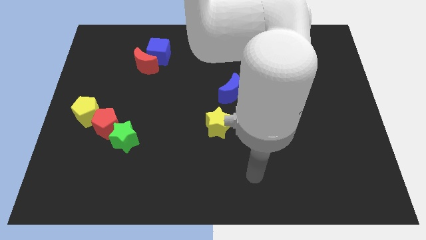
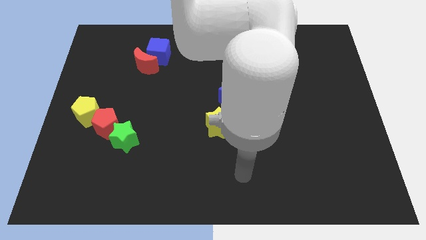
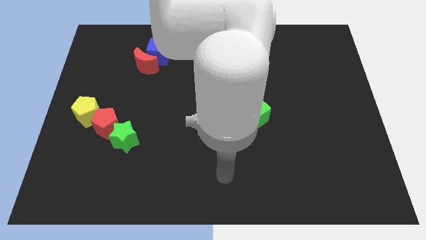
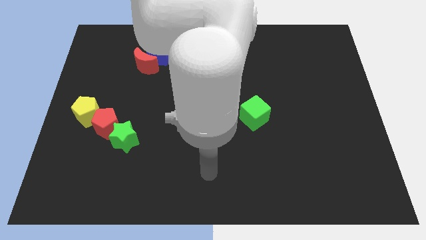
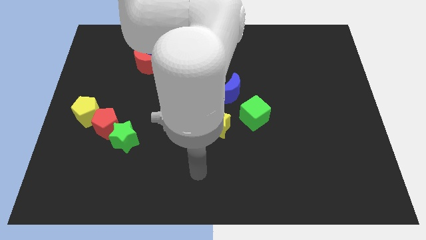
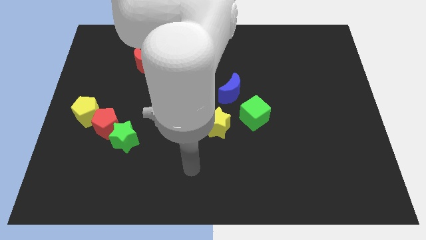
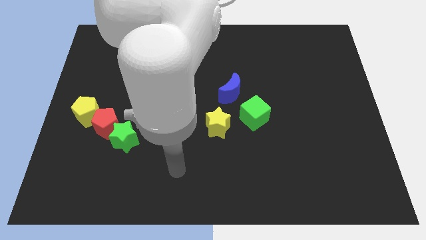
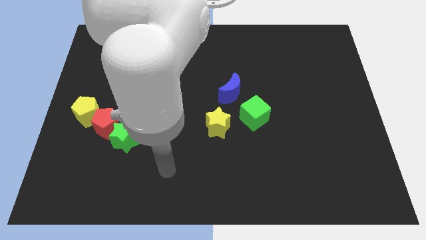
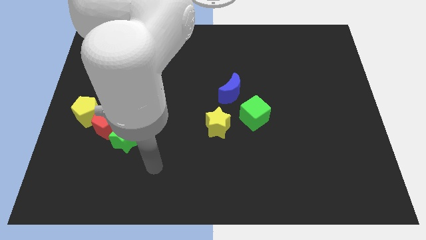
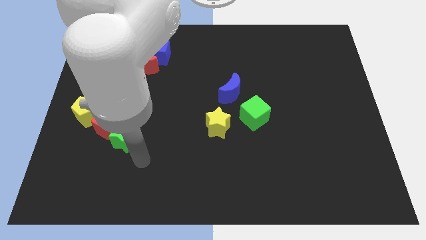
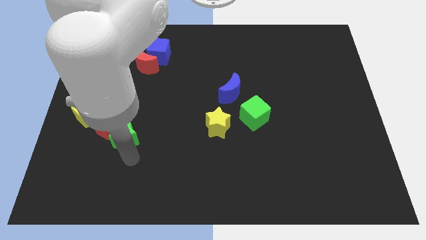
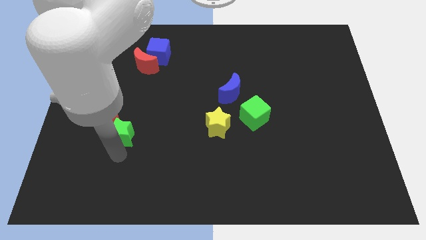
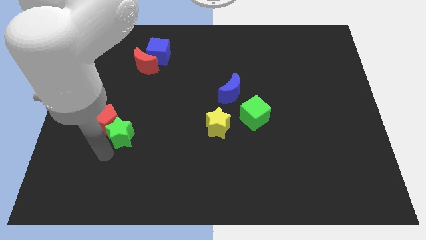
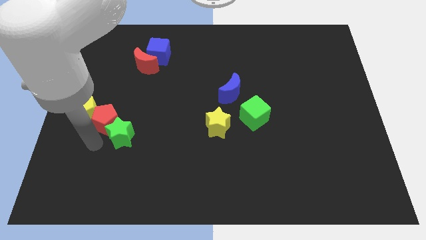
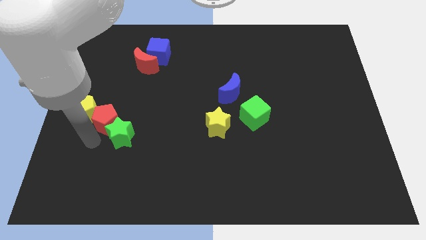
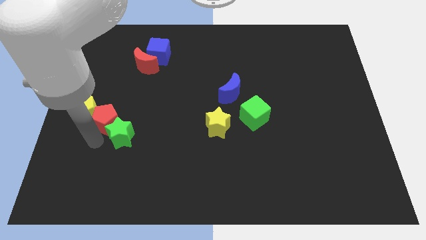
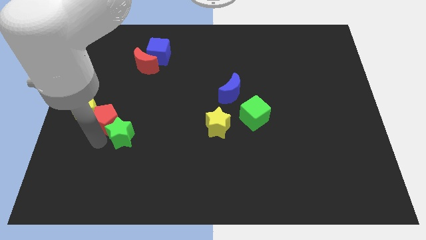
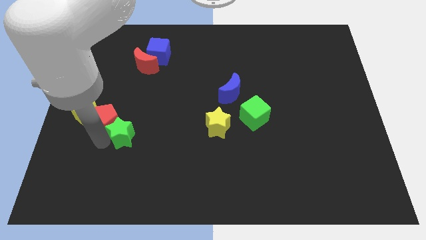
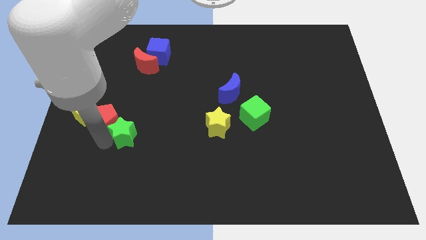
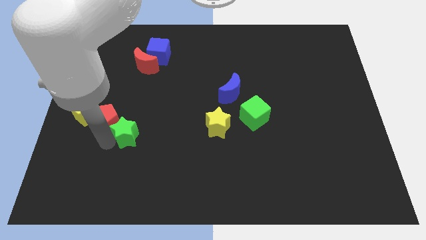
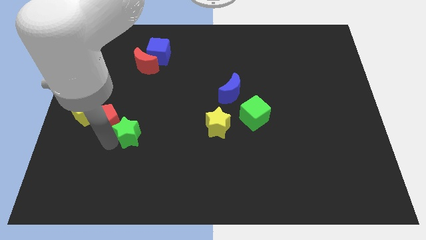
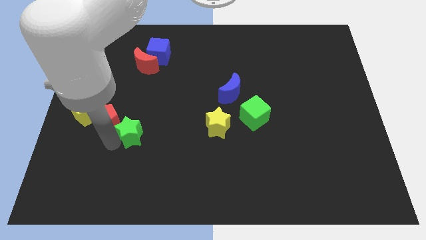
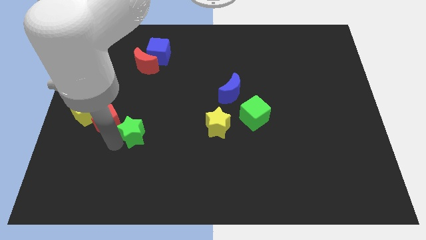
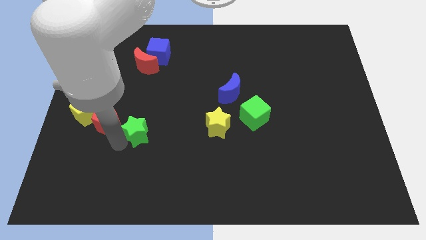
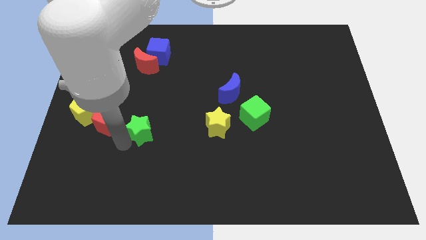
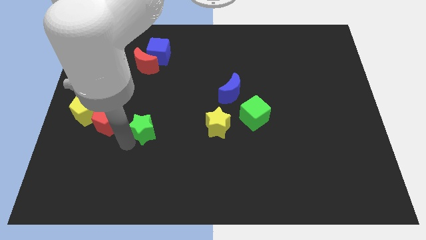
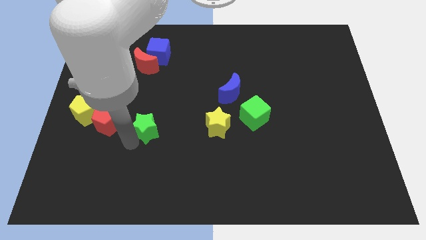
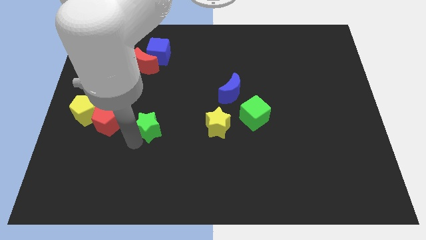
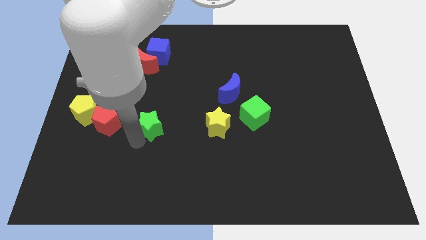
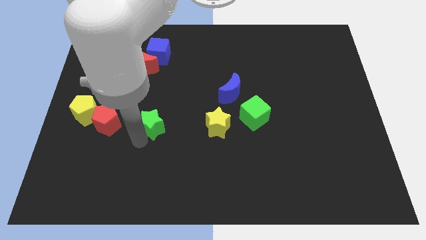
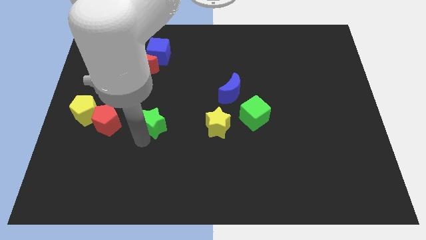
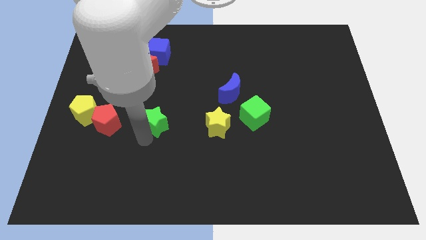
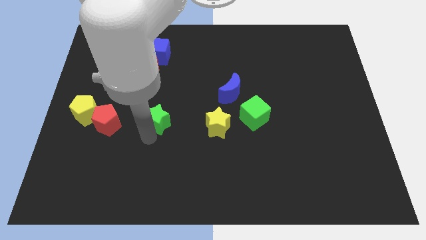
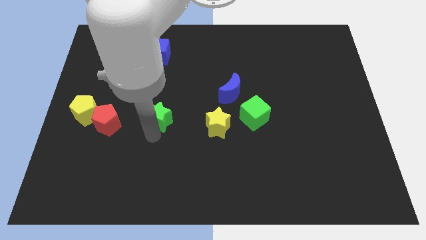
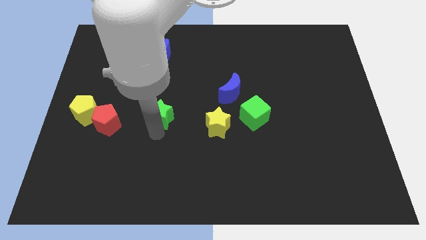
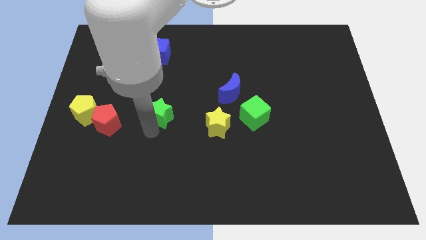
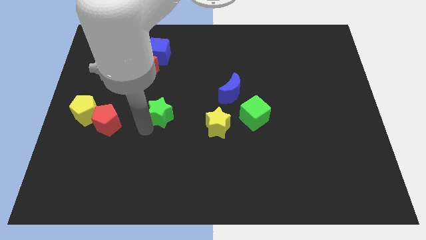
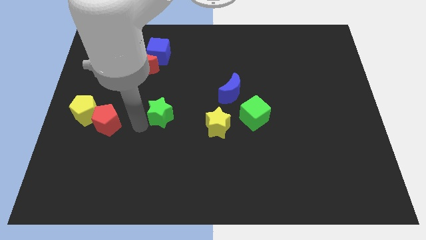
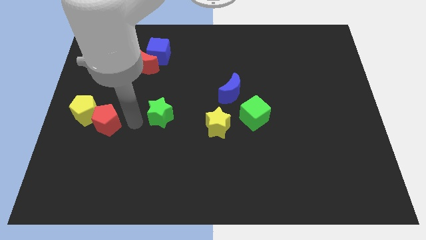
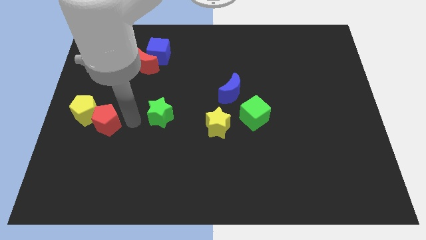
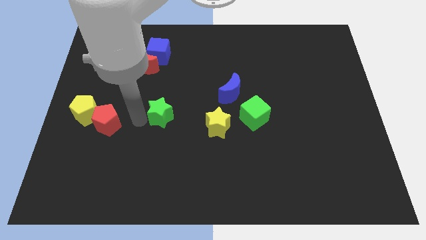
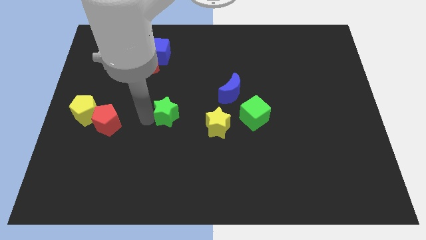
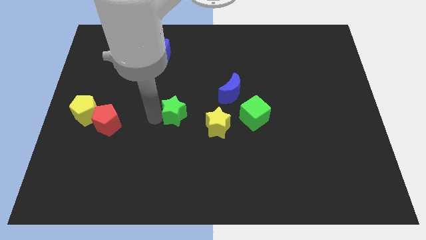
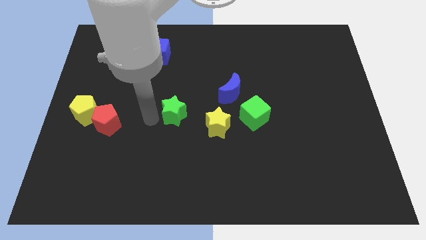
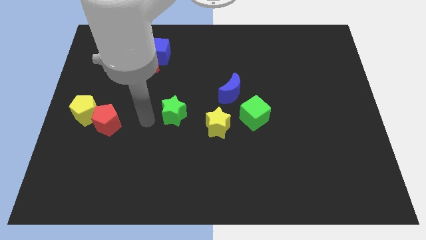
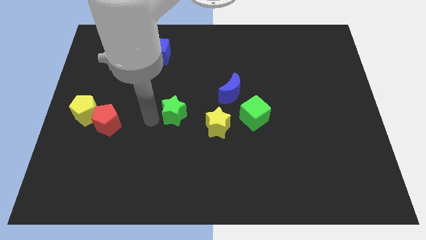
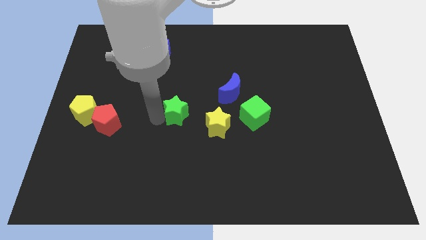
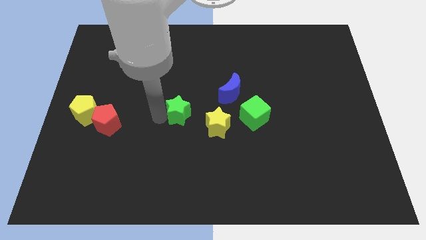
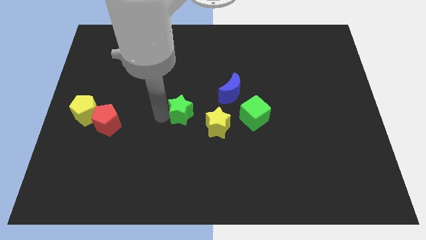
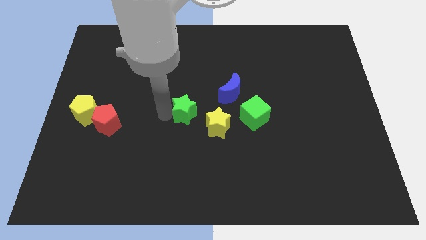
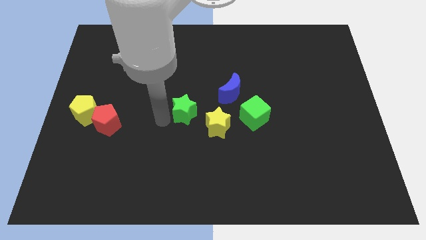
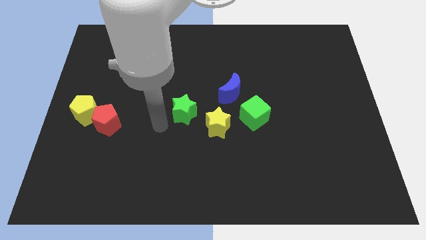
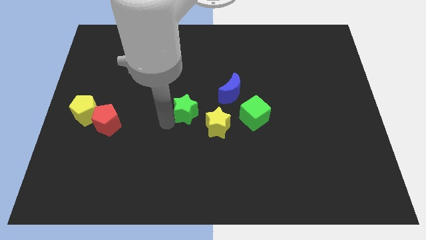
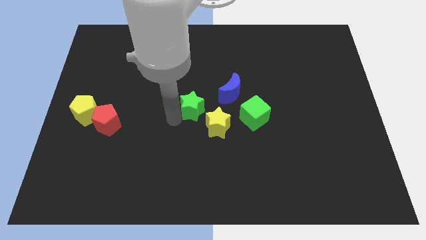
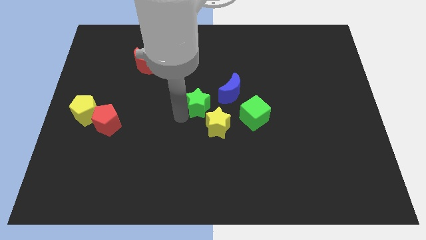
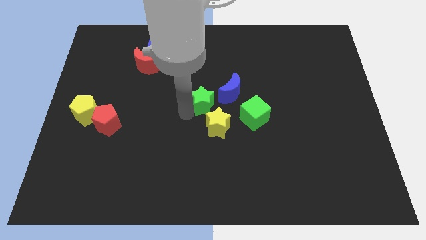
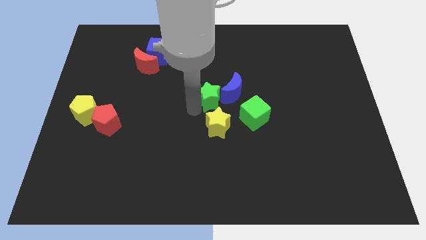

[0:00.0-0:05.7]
move the green star next to the blue moon

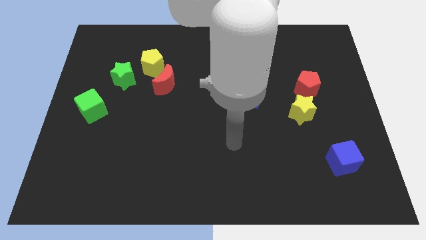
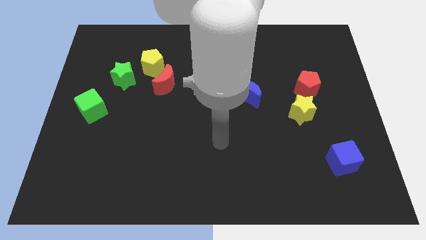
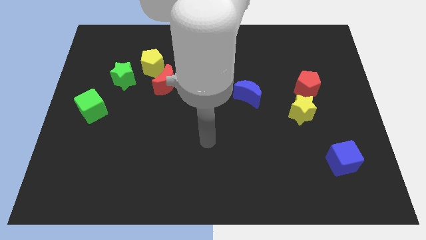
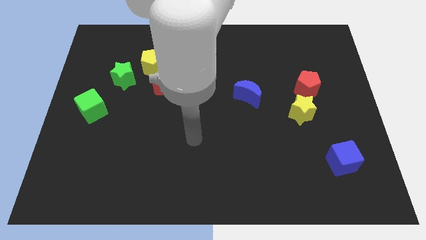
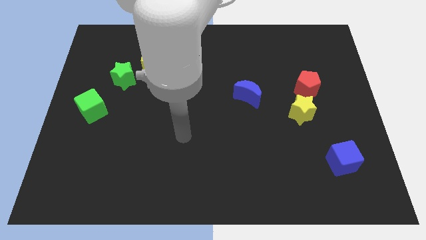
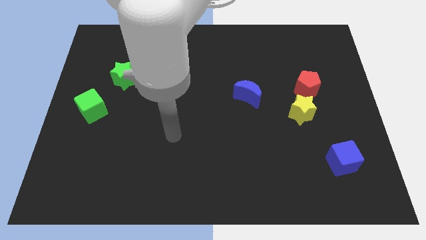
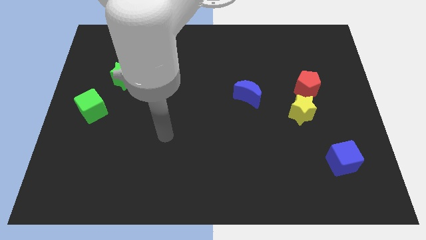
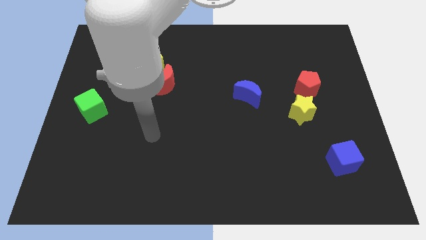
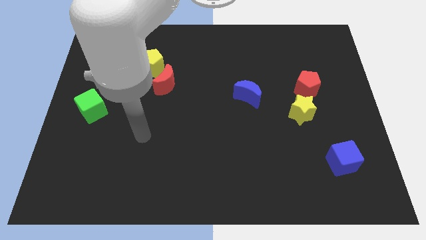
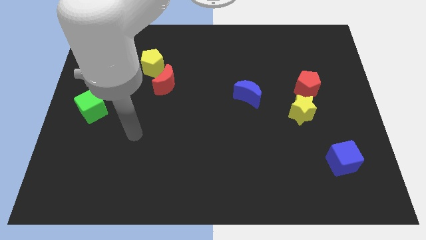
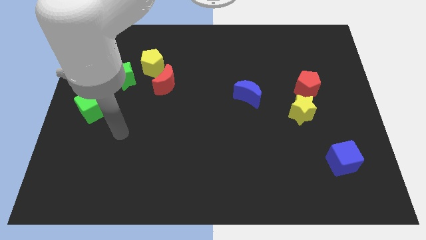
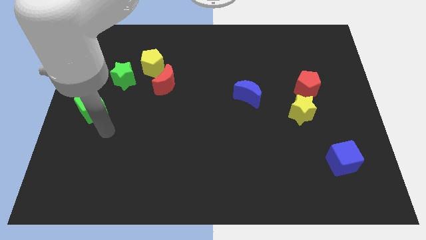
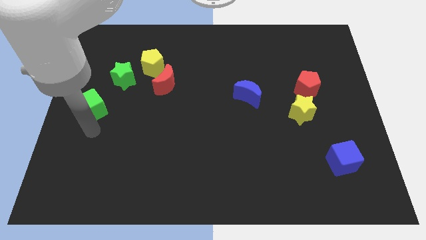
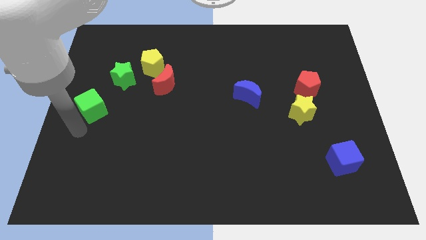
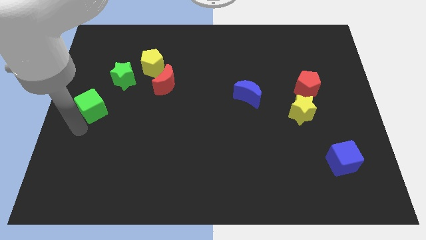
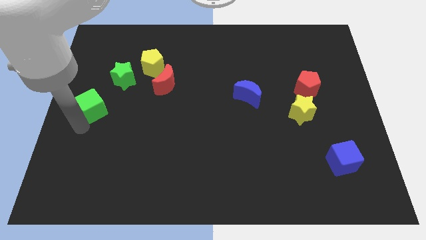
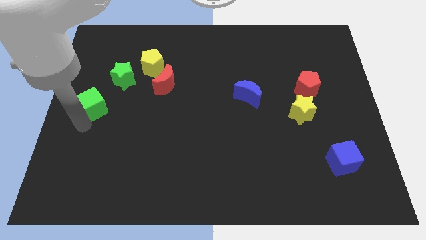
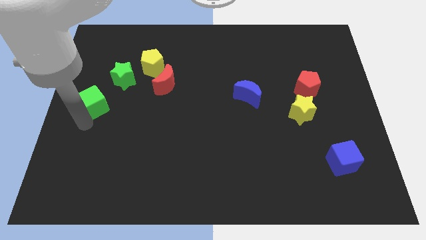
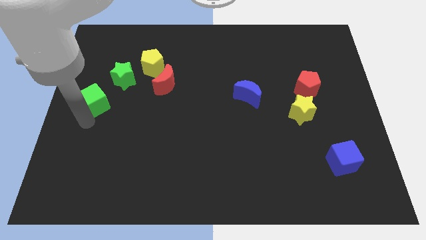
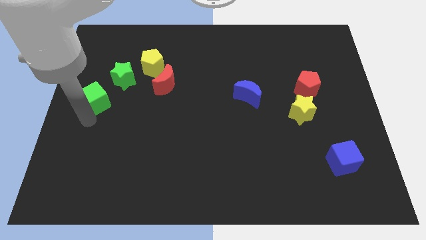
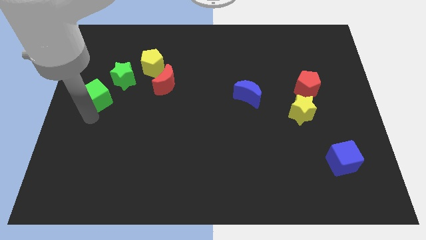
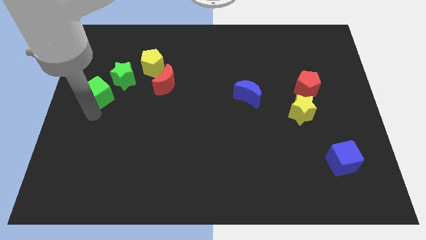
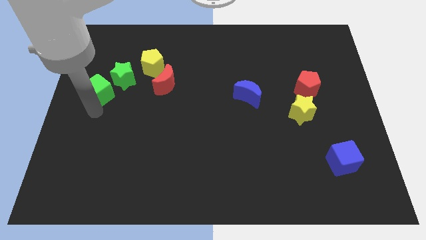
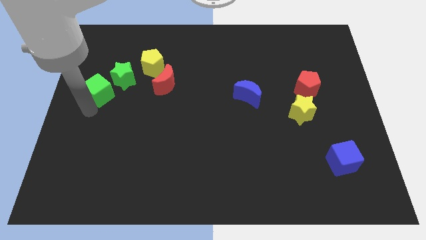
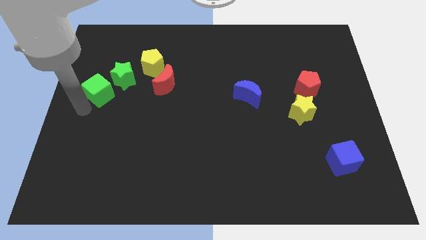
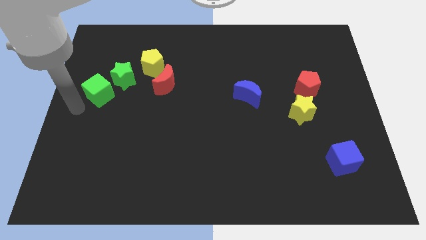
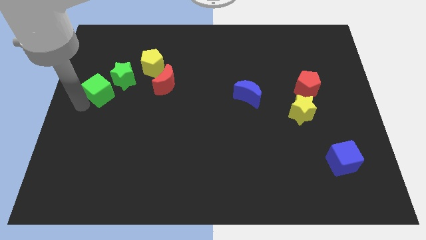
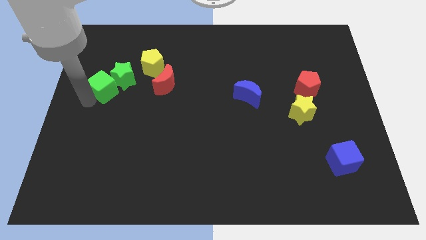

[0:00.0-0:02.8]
move the green cube to the green star
